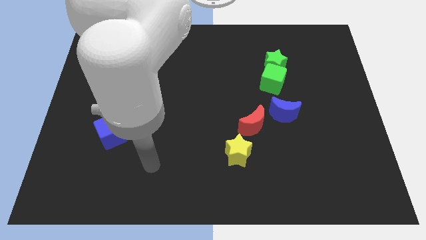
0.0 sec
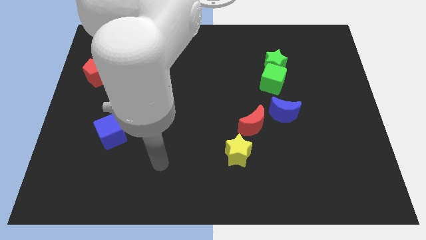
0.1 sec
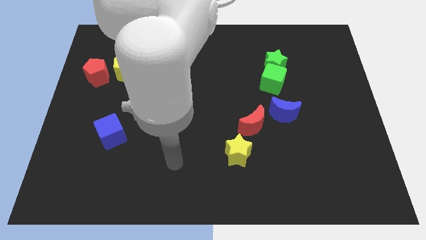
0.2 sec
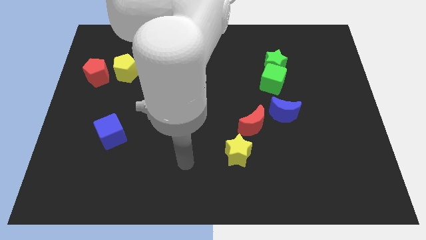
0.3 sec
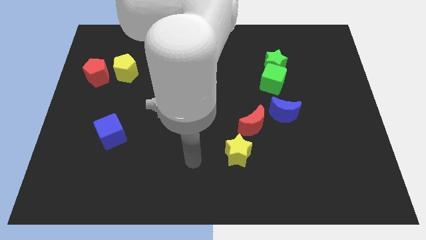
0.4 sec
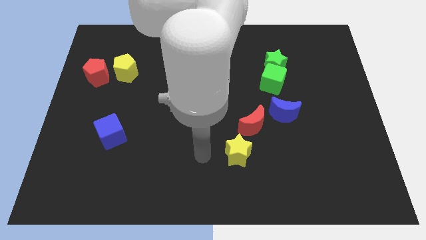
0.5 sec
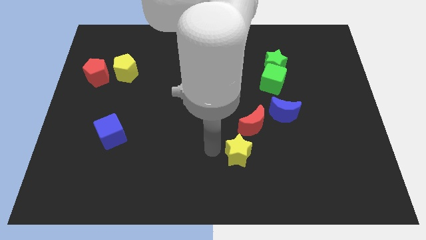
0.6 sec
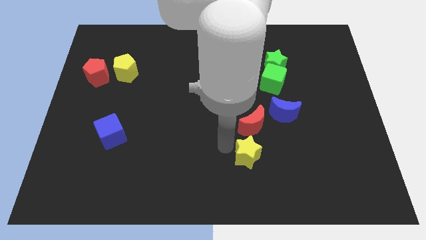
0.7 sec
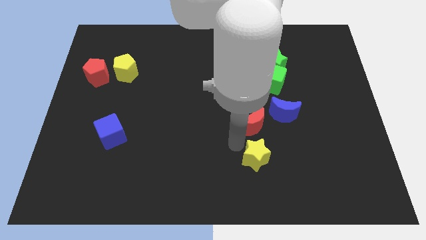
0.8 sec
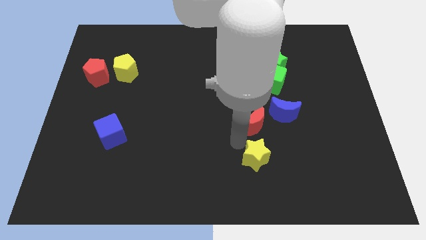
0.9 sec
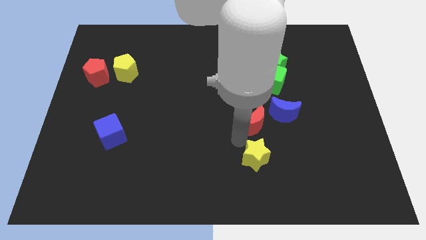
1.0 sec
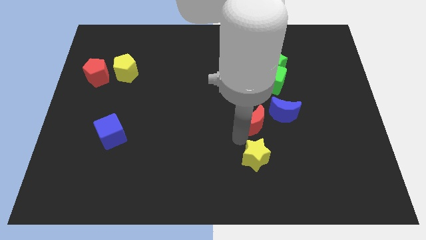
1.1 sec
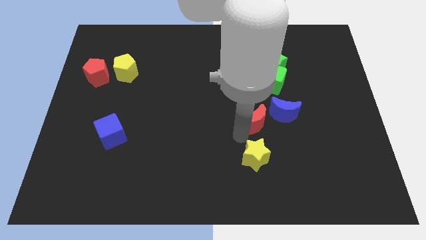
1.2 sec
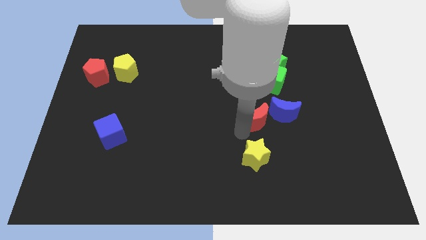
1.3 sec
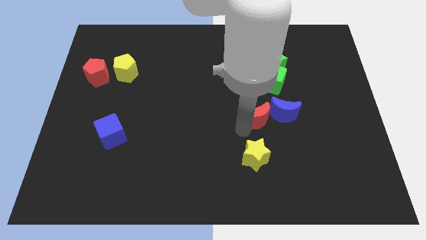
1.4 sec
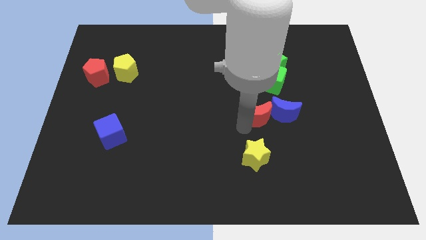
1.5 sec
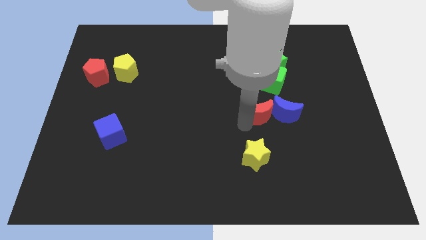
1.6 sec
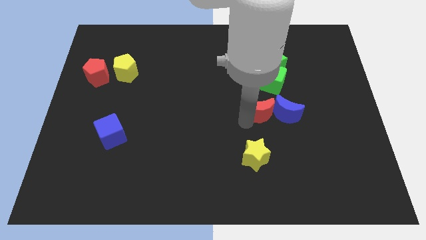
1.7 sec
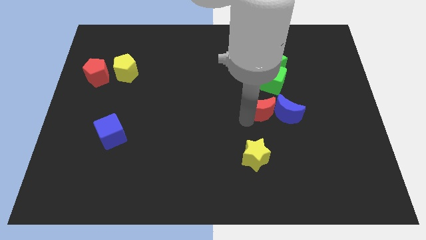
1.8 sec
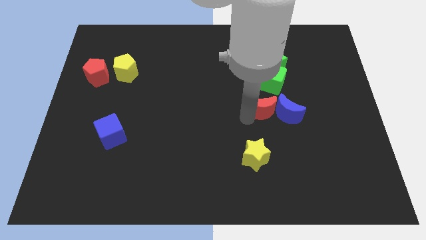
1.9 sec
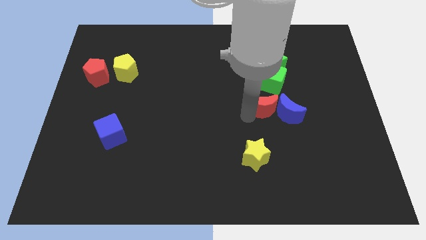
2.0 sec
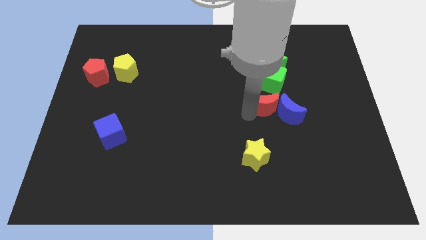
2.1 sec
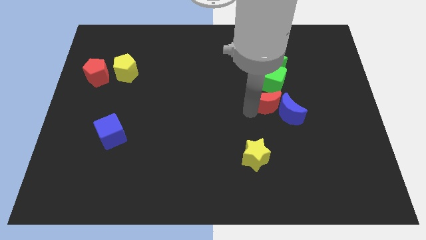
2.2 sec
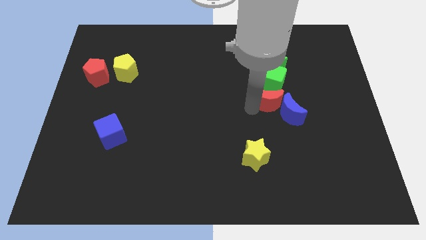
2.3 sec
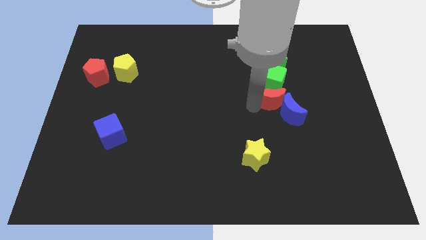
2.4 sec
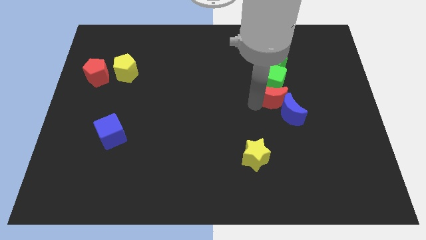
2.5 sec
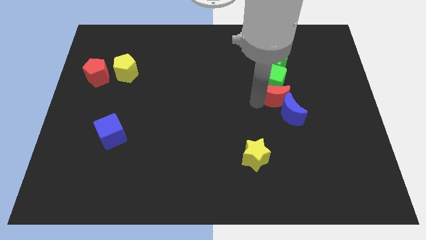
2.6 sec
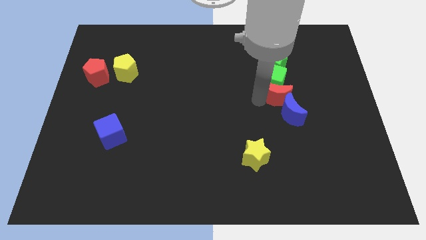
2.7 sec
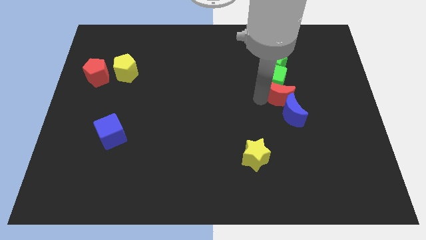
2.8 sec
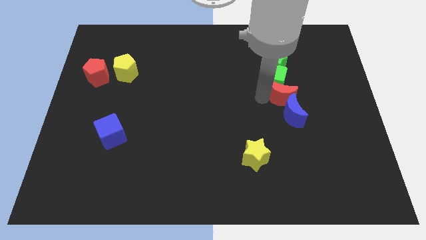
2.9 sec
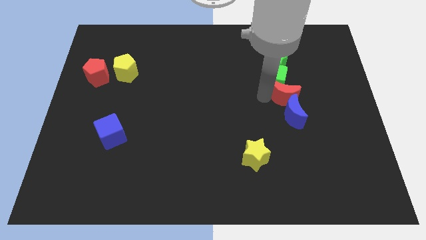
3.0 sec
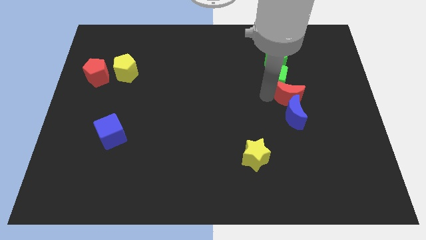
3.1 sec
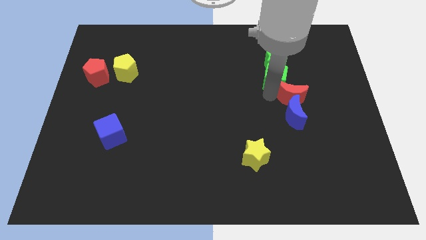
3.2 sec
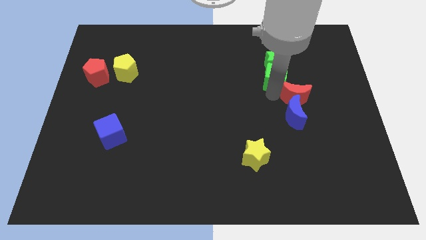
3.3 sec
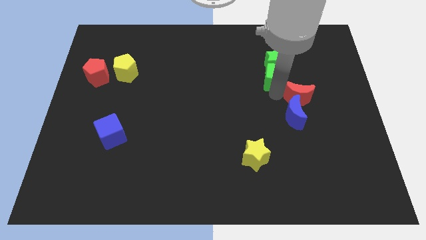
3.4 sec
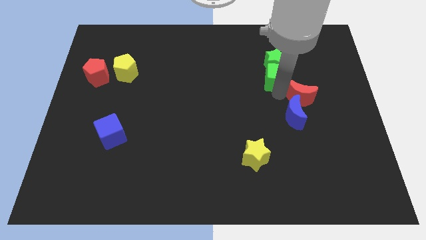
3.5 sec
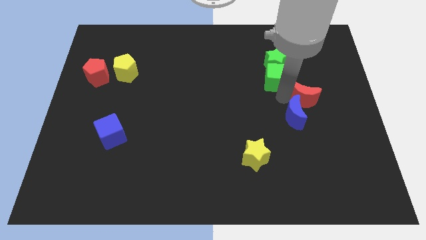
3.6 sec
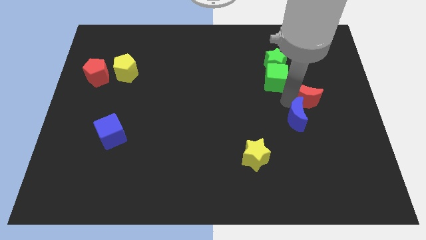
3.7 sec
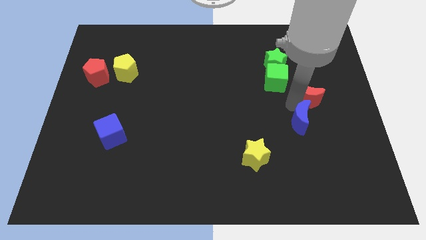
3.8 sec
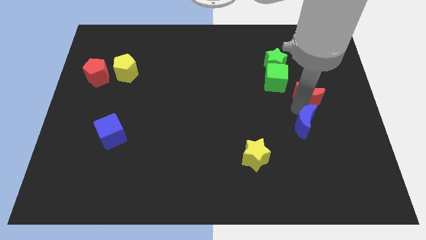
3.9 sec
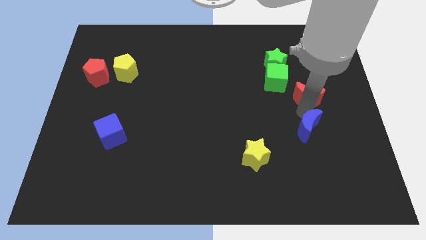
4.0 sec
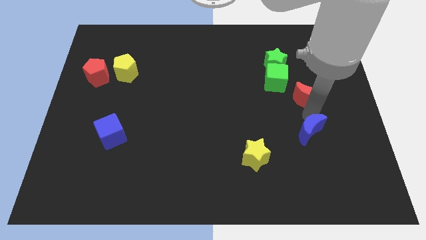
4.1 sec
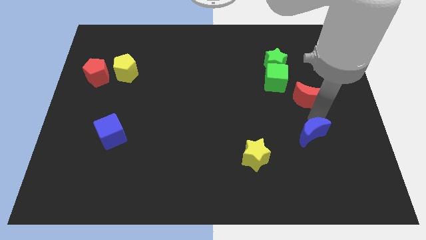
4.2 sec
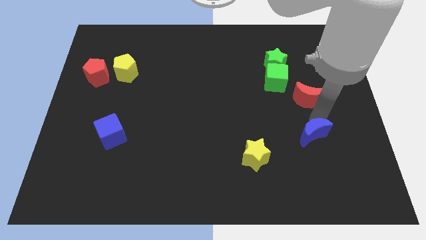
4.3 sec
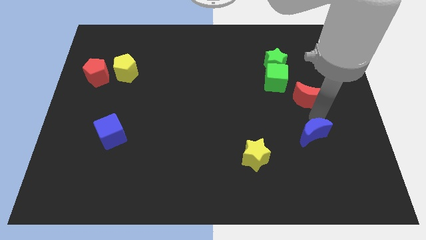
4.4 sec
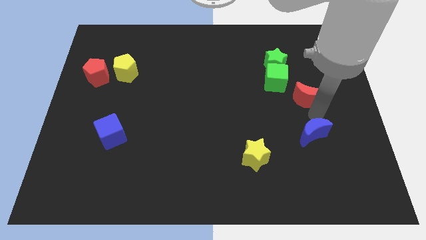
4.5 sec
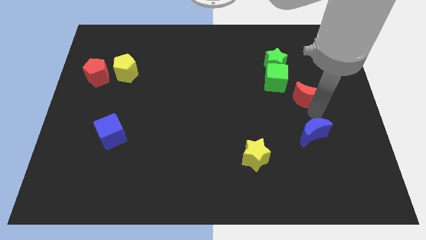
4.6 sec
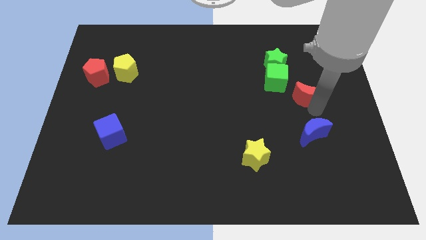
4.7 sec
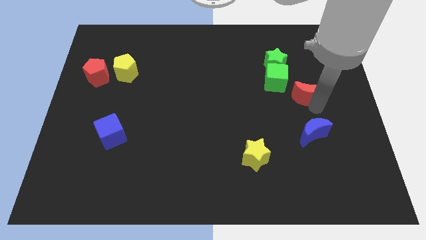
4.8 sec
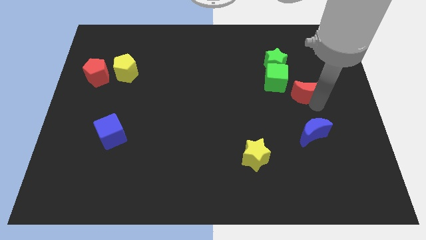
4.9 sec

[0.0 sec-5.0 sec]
slide the red moon to the bottom right of the green star

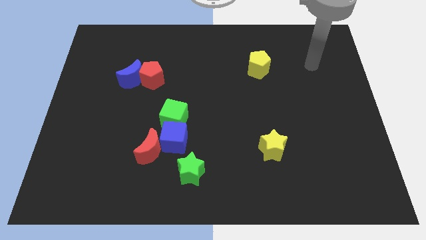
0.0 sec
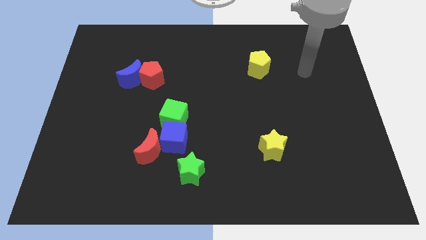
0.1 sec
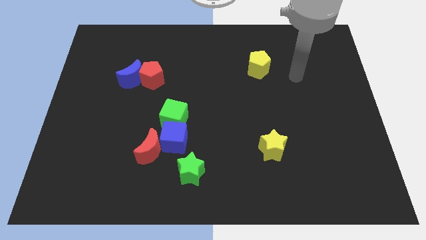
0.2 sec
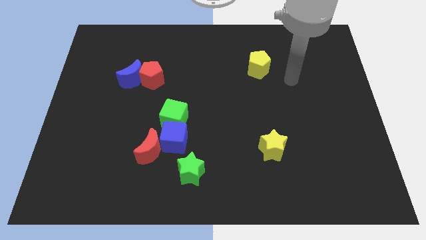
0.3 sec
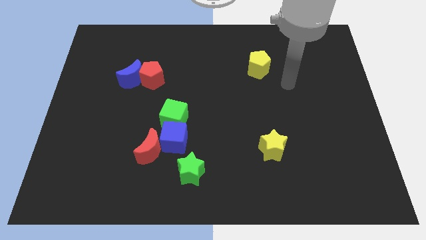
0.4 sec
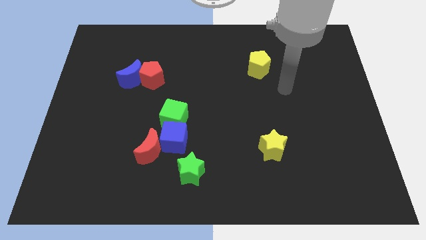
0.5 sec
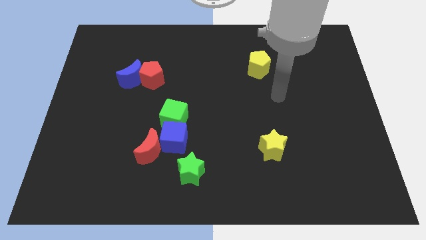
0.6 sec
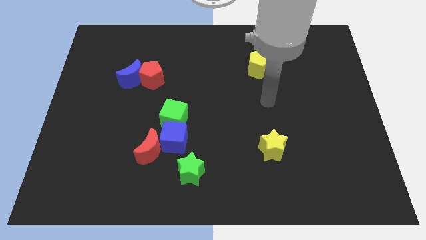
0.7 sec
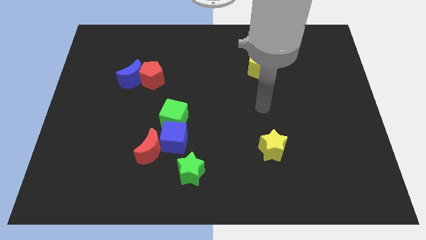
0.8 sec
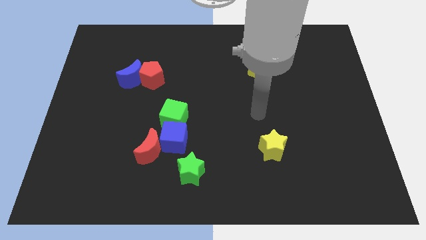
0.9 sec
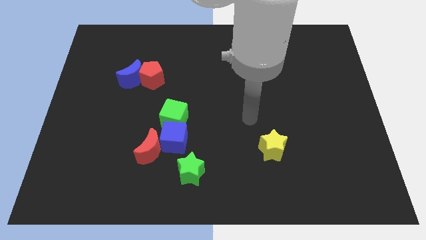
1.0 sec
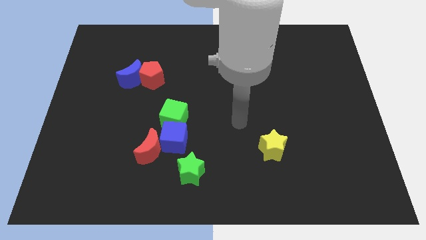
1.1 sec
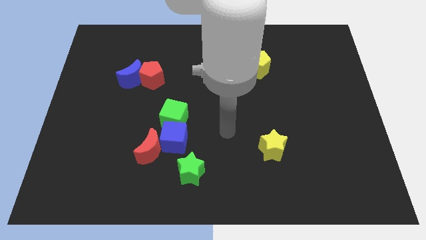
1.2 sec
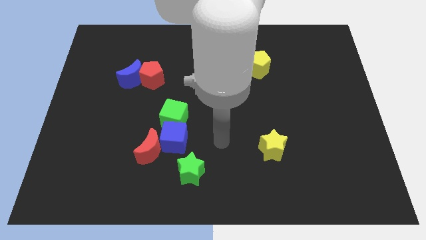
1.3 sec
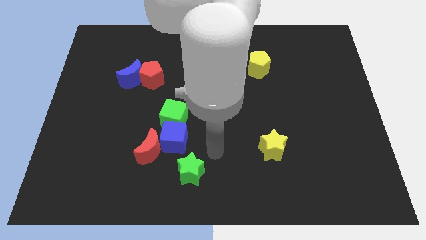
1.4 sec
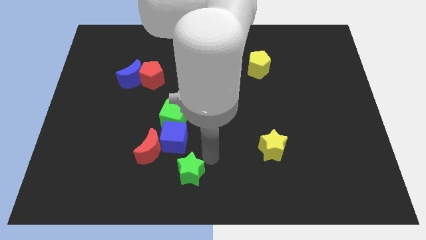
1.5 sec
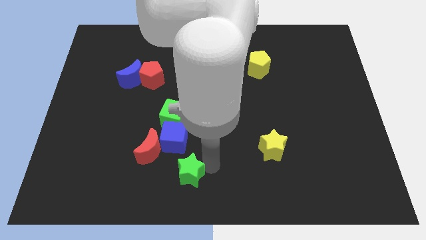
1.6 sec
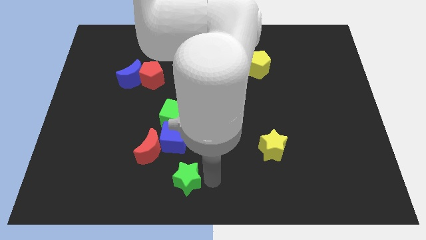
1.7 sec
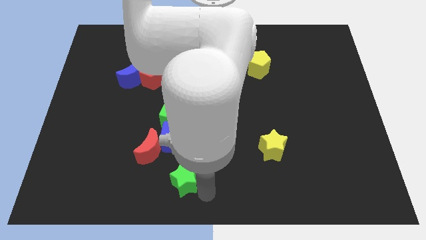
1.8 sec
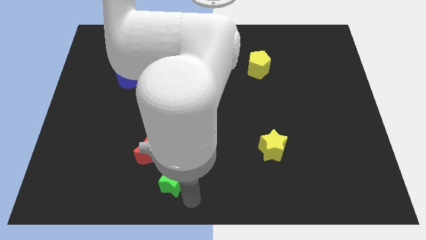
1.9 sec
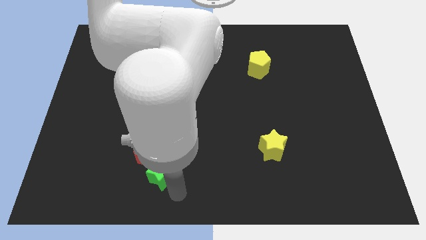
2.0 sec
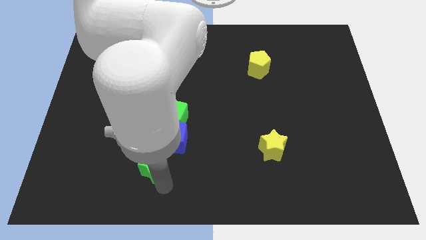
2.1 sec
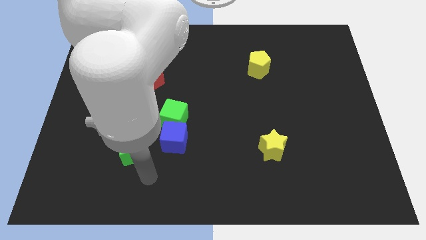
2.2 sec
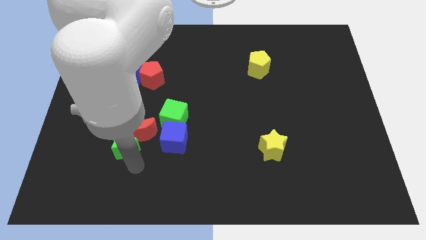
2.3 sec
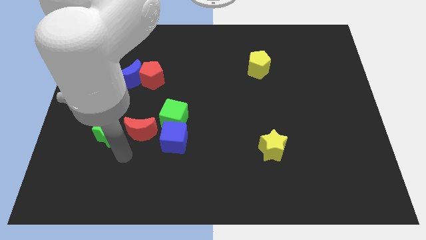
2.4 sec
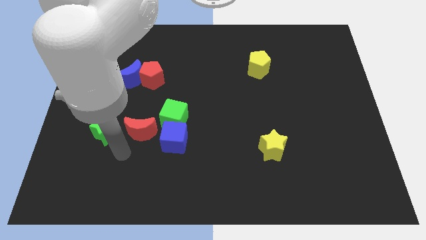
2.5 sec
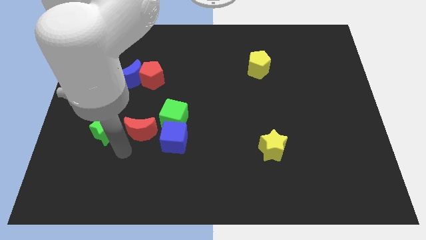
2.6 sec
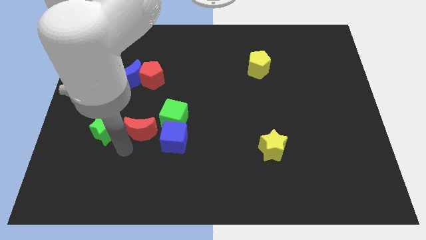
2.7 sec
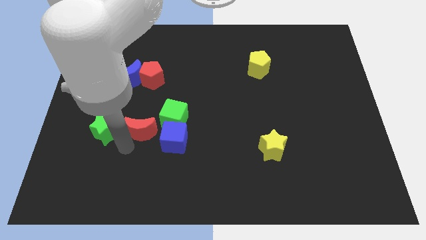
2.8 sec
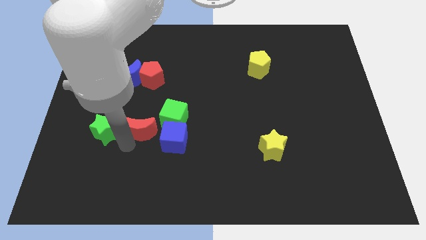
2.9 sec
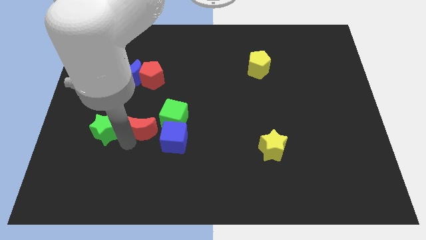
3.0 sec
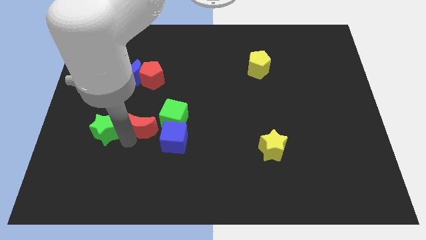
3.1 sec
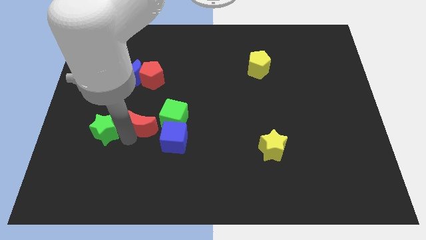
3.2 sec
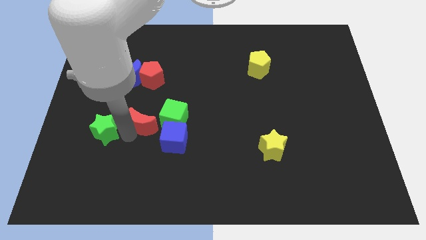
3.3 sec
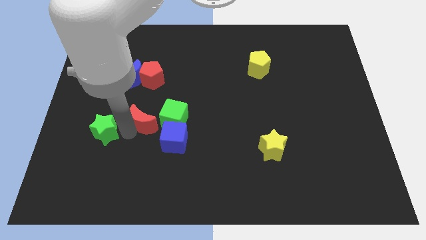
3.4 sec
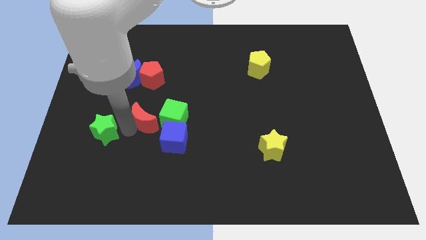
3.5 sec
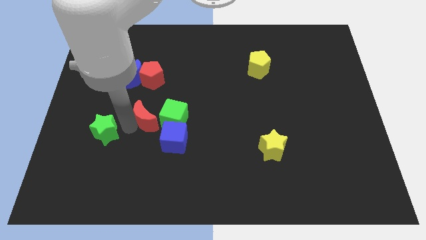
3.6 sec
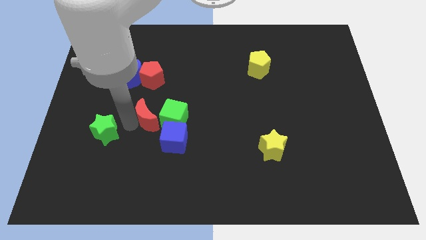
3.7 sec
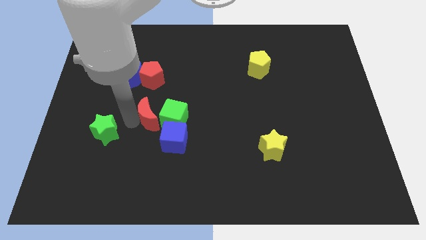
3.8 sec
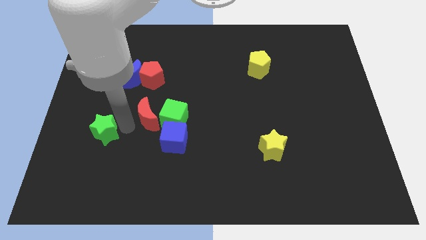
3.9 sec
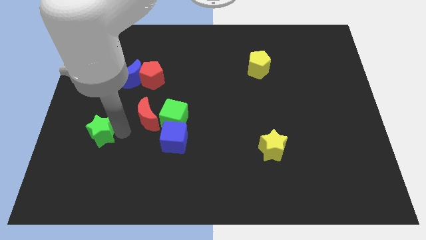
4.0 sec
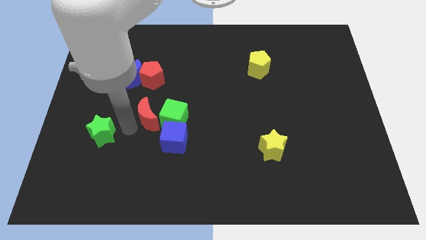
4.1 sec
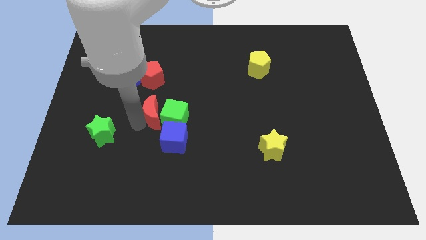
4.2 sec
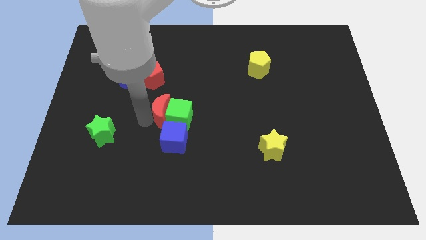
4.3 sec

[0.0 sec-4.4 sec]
move the red moon to the top side of the blue cube
